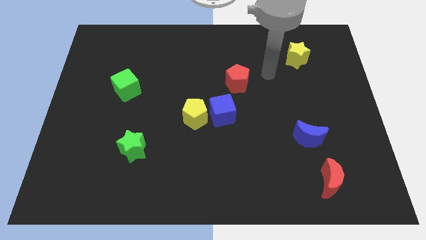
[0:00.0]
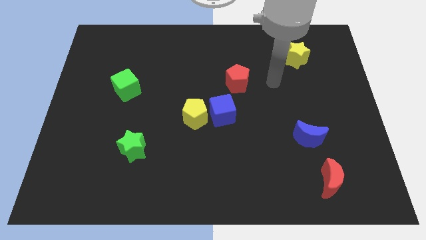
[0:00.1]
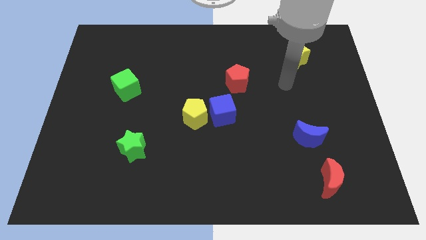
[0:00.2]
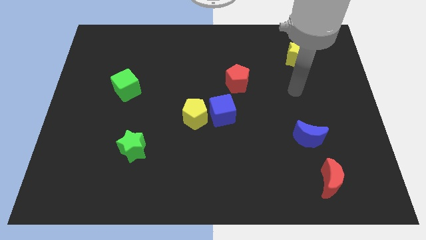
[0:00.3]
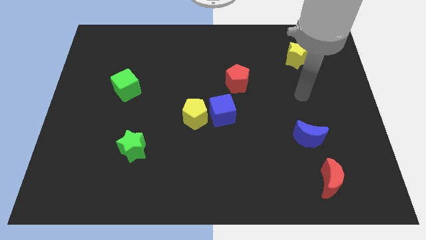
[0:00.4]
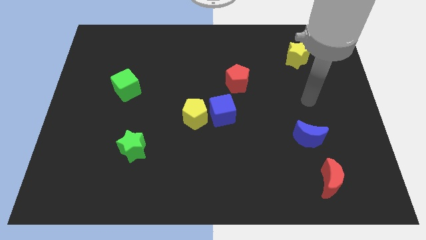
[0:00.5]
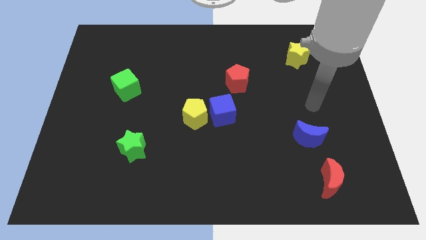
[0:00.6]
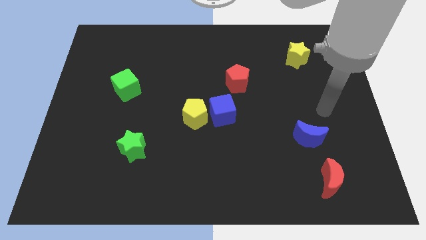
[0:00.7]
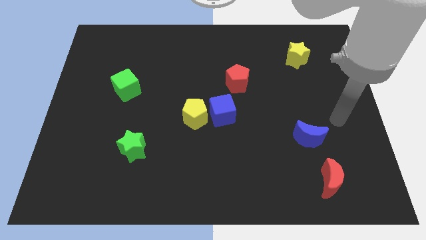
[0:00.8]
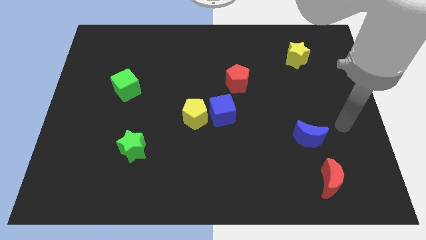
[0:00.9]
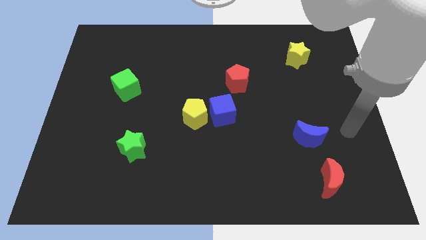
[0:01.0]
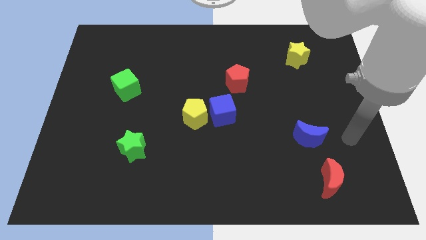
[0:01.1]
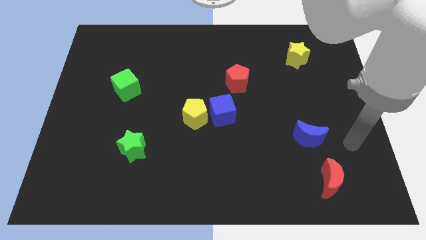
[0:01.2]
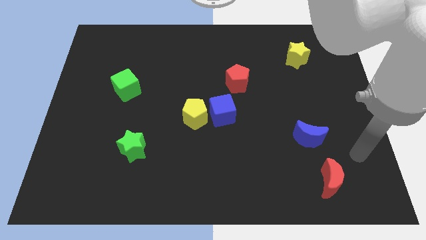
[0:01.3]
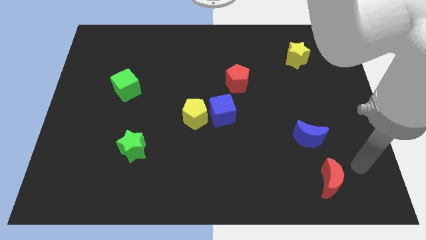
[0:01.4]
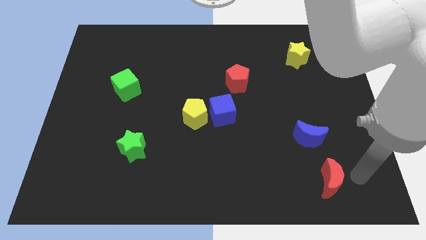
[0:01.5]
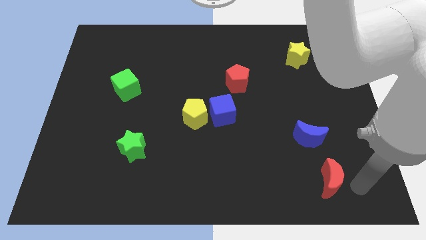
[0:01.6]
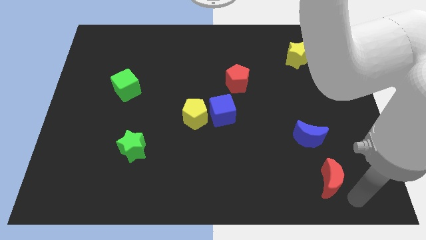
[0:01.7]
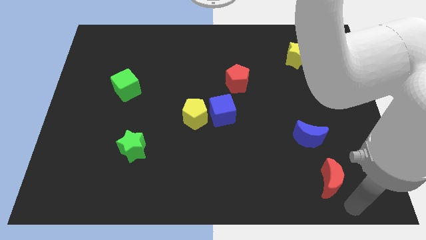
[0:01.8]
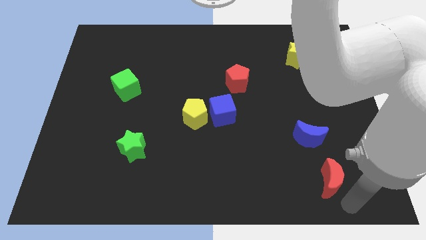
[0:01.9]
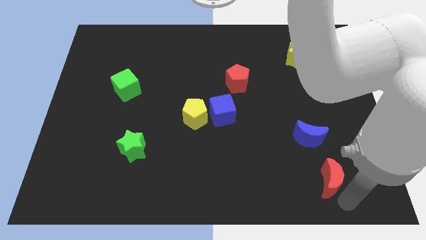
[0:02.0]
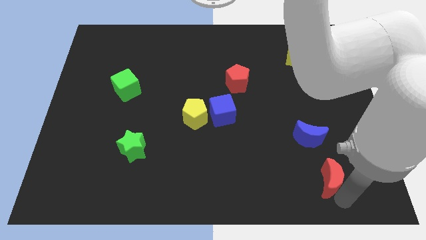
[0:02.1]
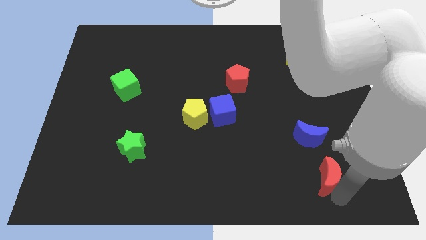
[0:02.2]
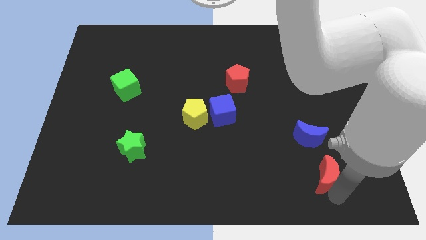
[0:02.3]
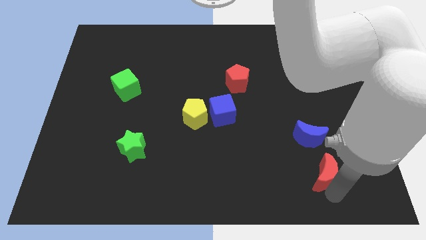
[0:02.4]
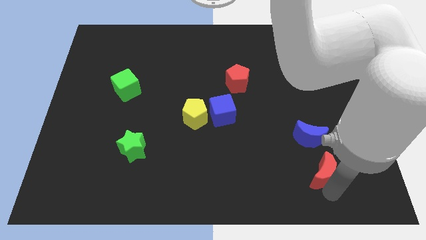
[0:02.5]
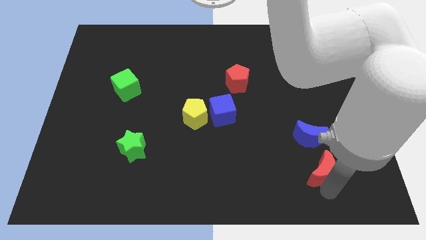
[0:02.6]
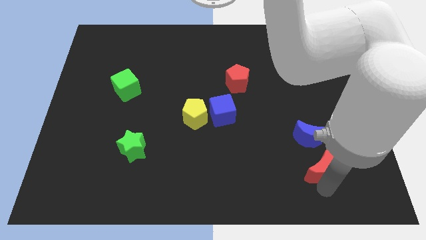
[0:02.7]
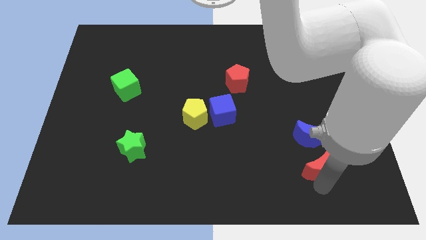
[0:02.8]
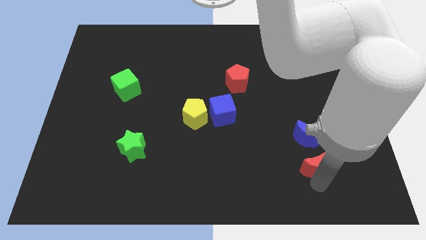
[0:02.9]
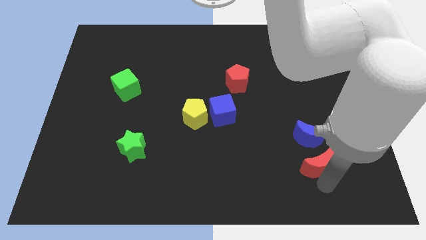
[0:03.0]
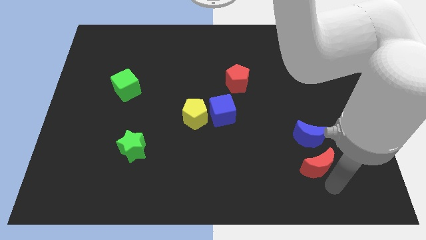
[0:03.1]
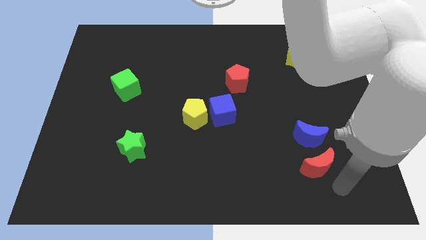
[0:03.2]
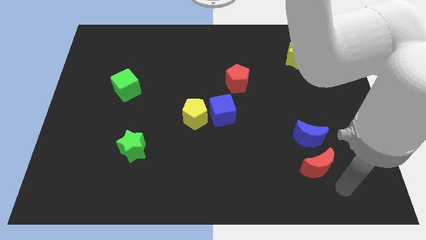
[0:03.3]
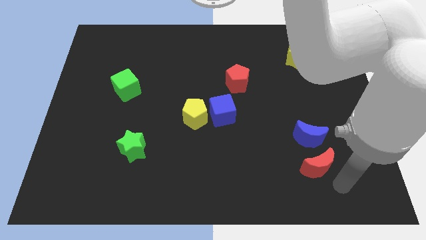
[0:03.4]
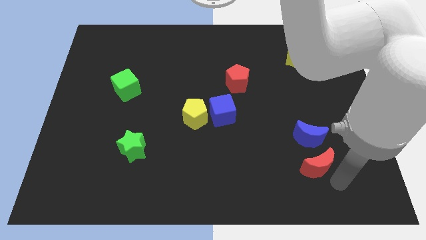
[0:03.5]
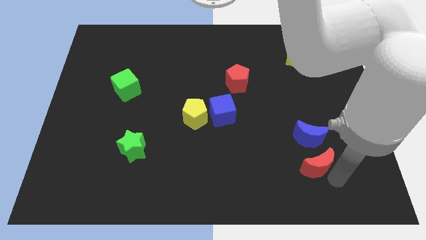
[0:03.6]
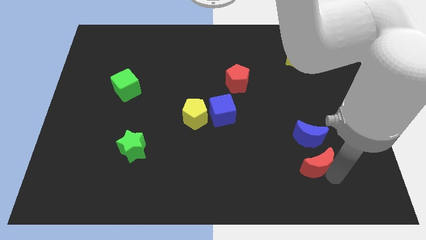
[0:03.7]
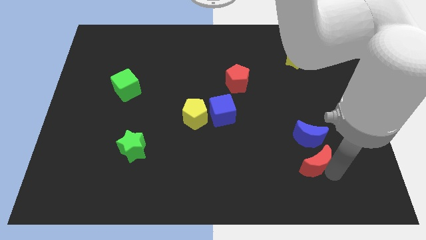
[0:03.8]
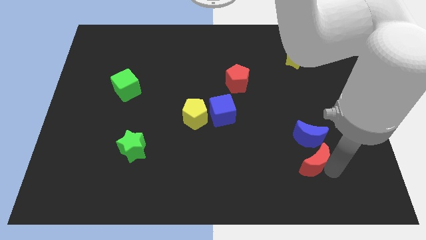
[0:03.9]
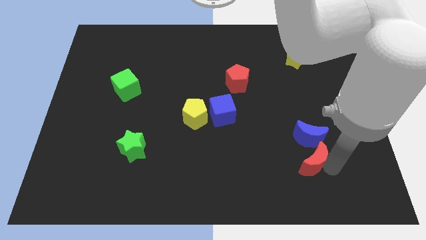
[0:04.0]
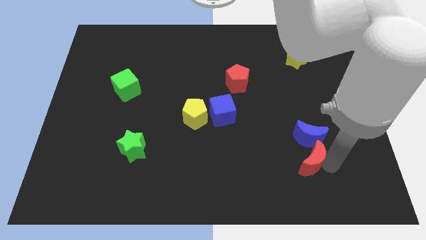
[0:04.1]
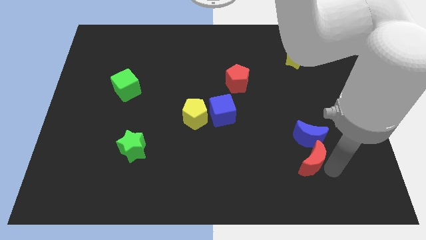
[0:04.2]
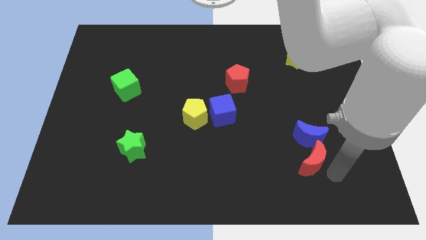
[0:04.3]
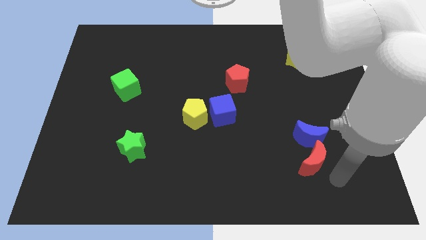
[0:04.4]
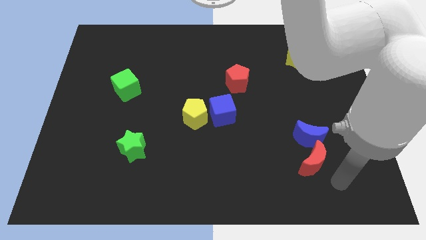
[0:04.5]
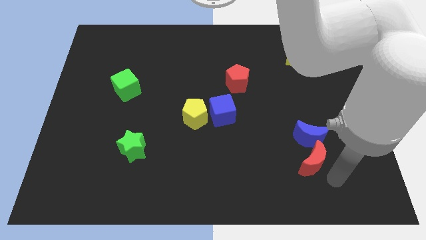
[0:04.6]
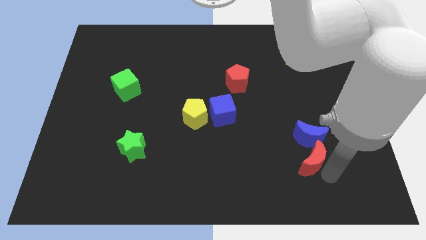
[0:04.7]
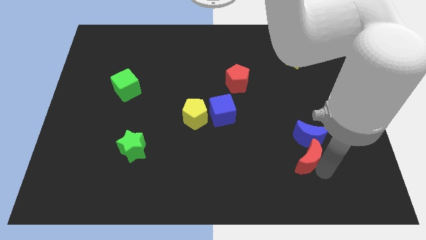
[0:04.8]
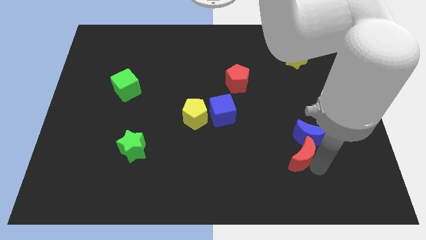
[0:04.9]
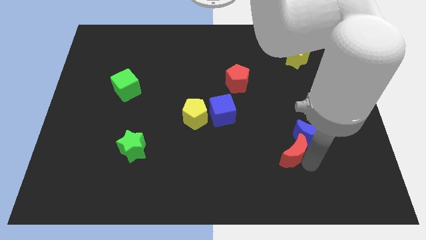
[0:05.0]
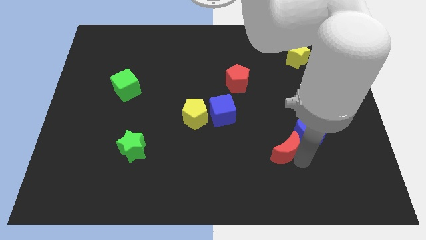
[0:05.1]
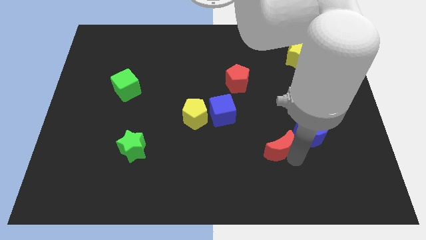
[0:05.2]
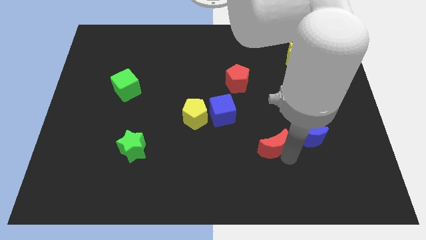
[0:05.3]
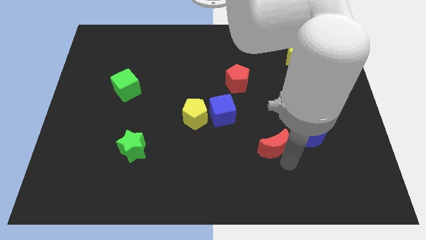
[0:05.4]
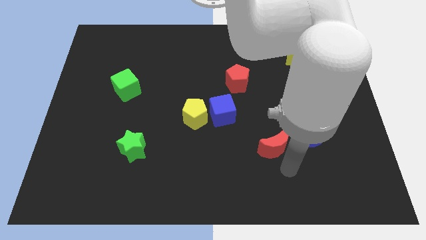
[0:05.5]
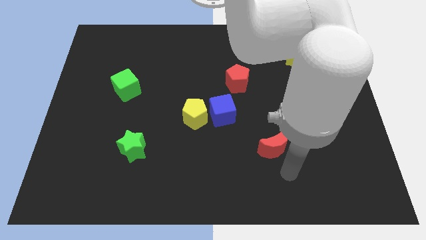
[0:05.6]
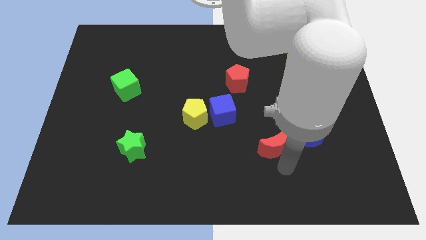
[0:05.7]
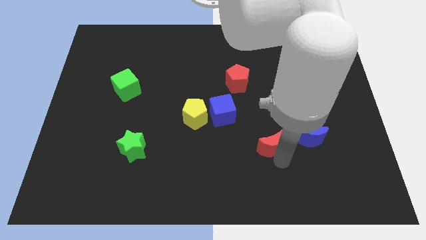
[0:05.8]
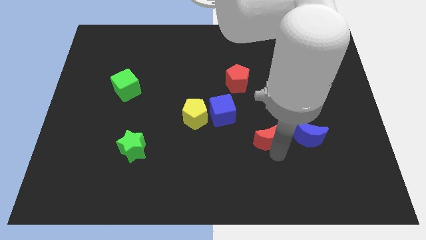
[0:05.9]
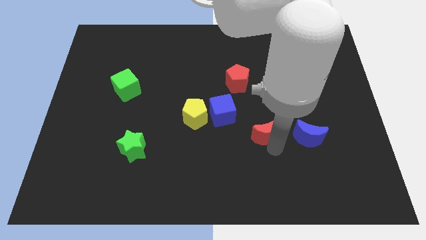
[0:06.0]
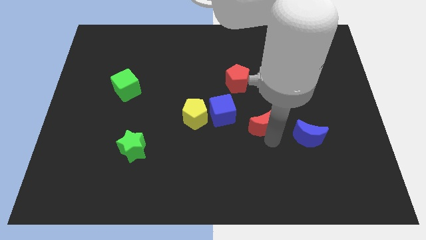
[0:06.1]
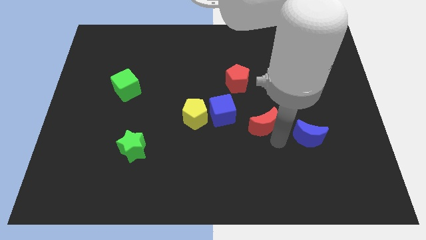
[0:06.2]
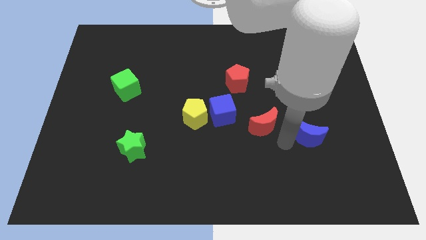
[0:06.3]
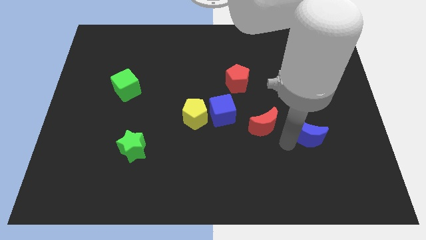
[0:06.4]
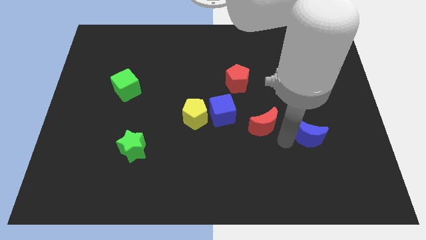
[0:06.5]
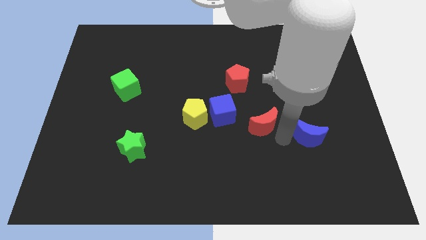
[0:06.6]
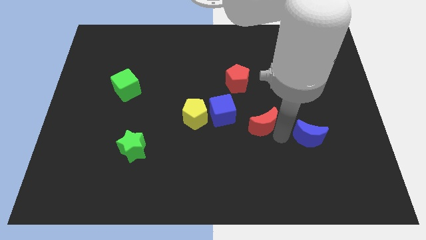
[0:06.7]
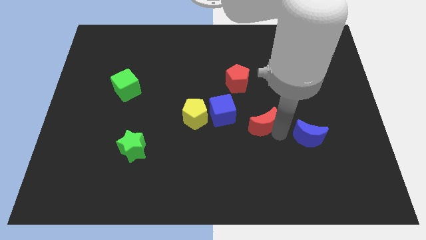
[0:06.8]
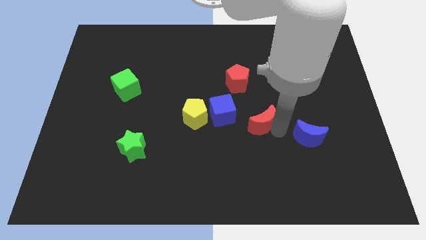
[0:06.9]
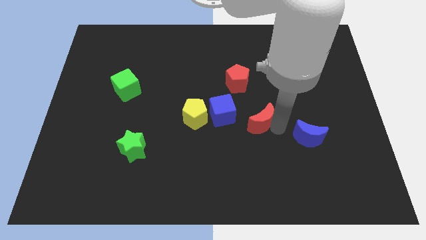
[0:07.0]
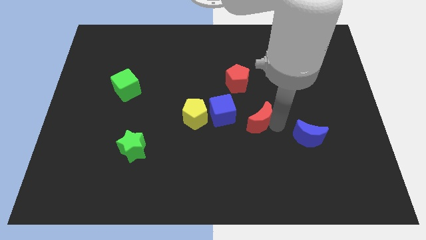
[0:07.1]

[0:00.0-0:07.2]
slide the red moon upwards and then left

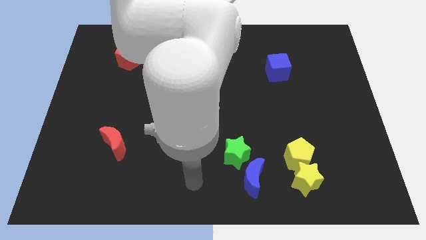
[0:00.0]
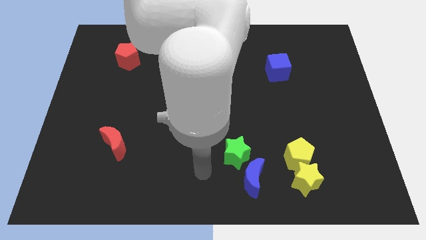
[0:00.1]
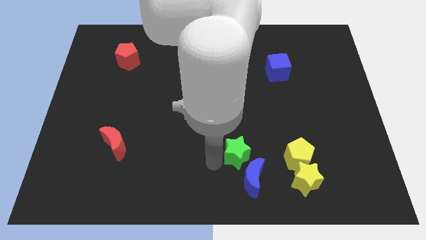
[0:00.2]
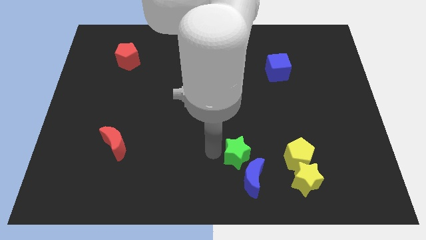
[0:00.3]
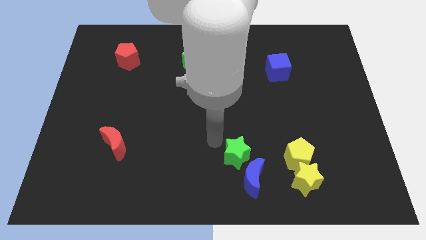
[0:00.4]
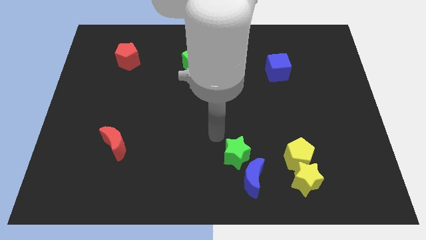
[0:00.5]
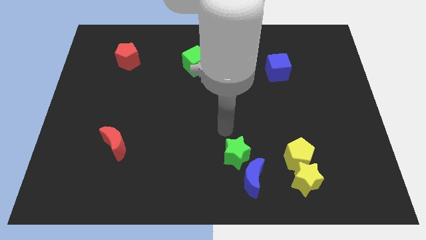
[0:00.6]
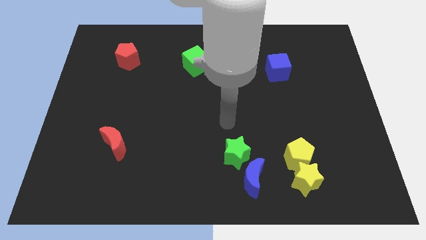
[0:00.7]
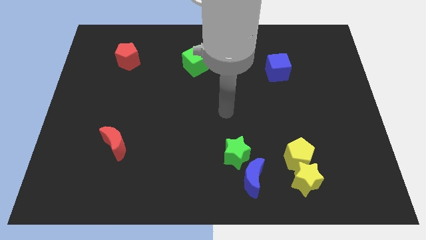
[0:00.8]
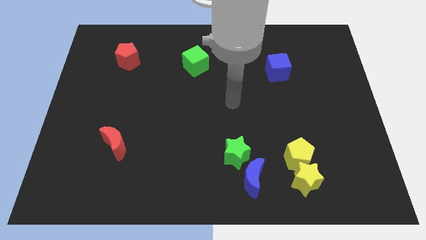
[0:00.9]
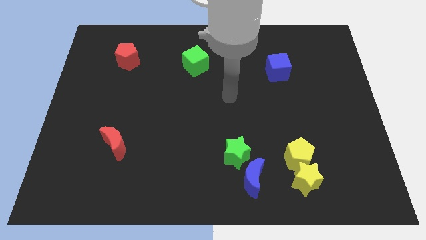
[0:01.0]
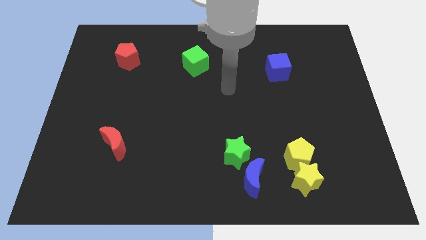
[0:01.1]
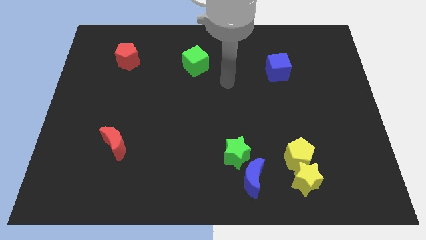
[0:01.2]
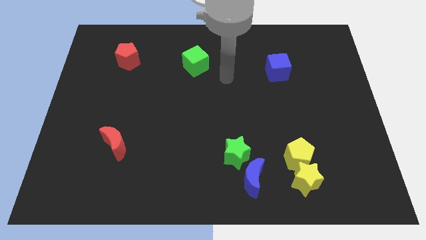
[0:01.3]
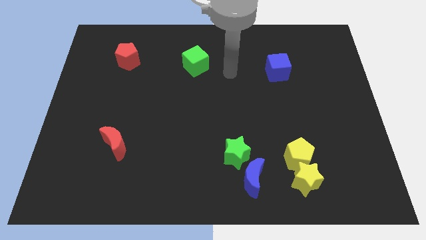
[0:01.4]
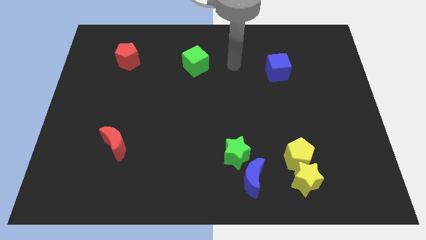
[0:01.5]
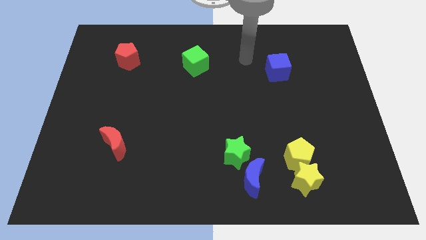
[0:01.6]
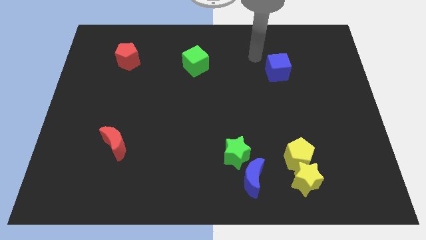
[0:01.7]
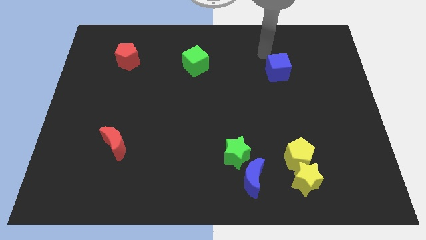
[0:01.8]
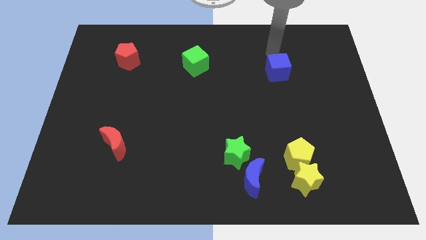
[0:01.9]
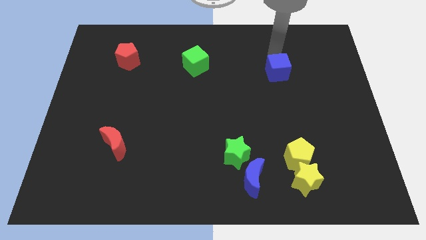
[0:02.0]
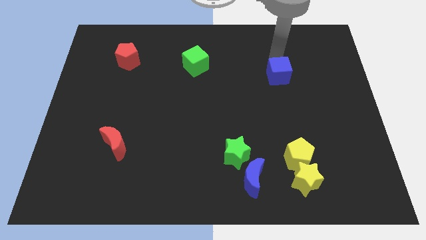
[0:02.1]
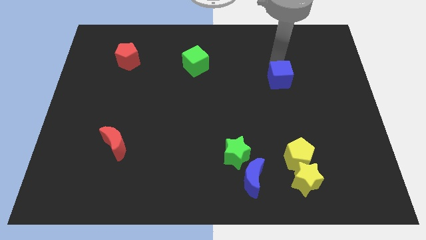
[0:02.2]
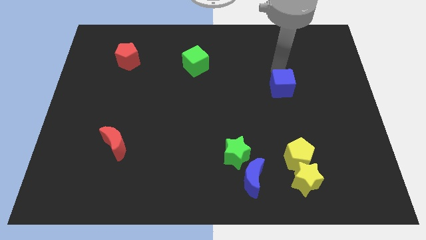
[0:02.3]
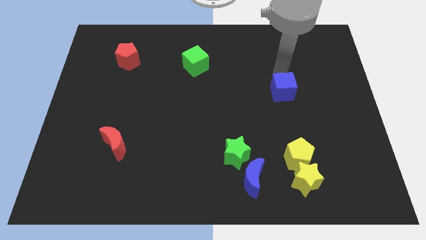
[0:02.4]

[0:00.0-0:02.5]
slightly push the blue cube downwards
